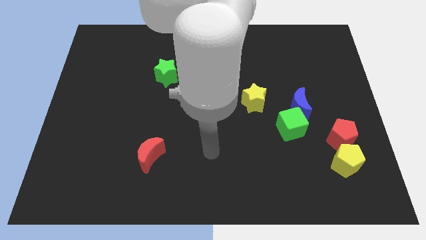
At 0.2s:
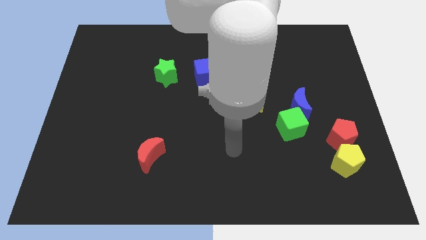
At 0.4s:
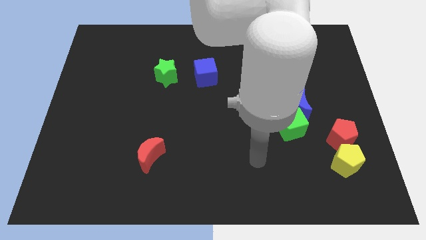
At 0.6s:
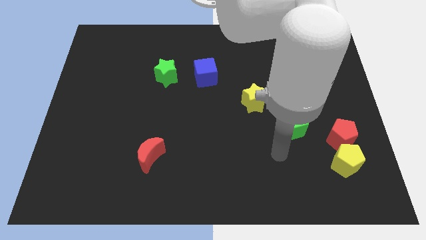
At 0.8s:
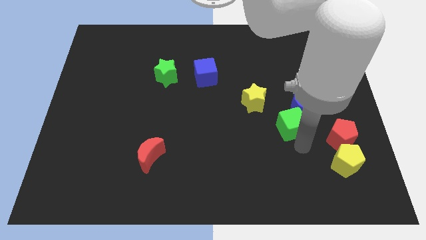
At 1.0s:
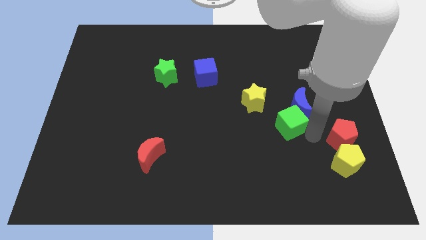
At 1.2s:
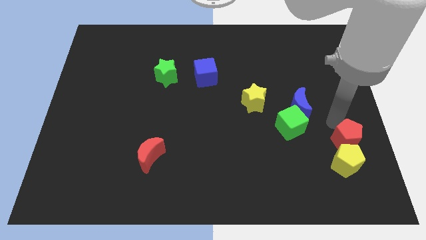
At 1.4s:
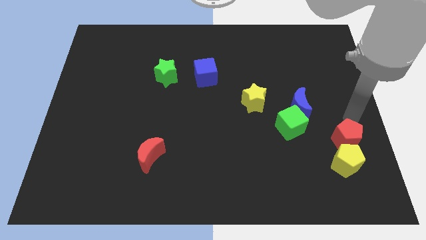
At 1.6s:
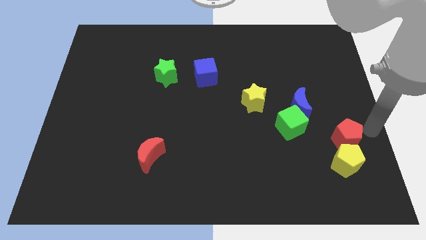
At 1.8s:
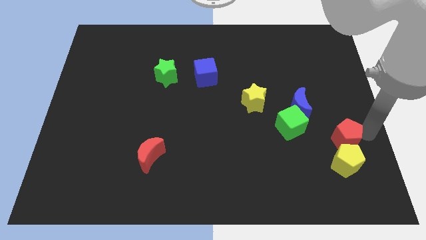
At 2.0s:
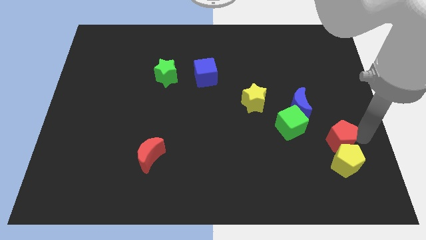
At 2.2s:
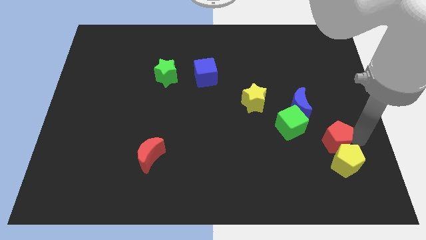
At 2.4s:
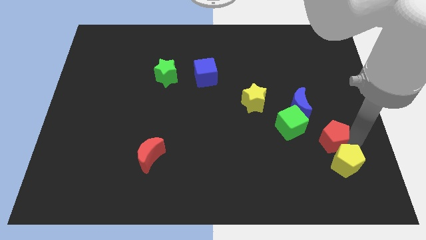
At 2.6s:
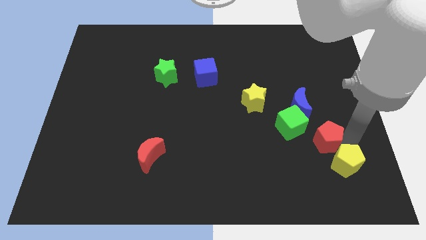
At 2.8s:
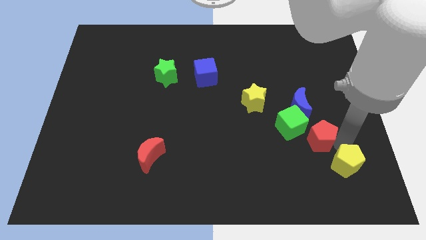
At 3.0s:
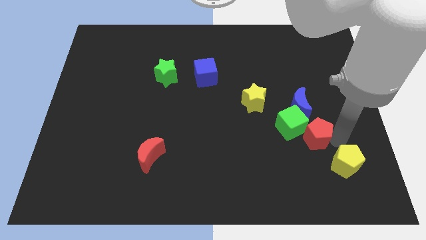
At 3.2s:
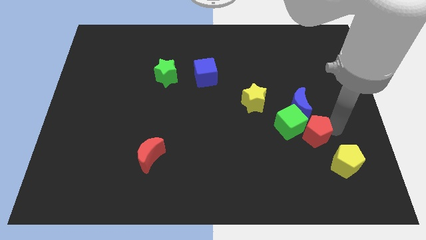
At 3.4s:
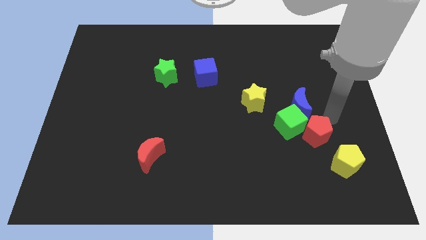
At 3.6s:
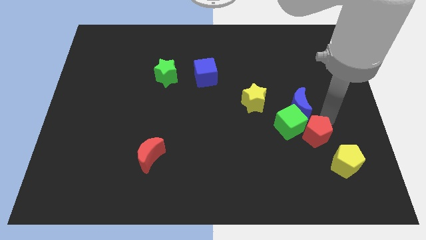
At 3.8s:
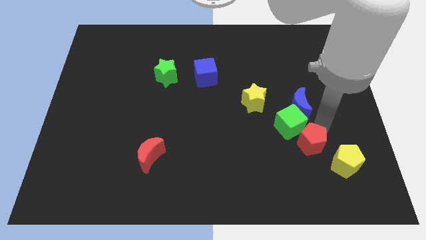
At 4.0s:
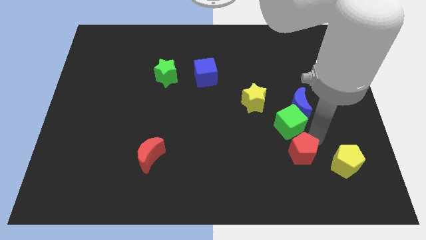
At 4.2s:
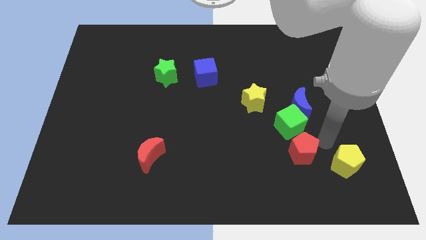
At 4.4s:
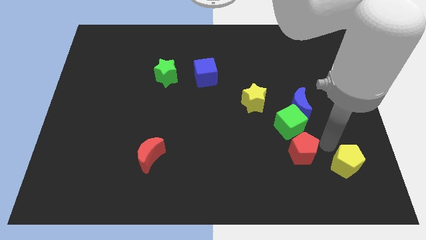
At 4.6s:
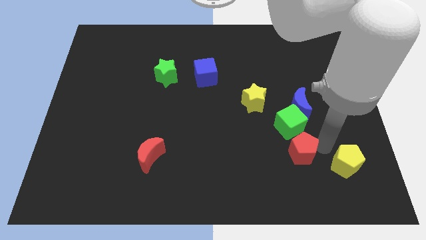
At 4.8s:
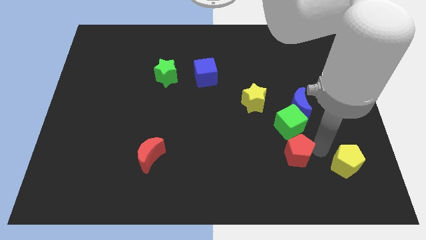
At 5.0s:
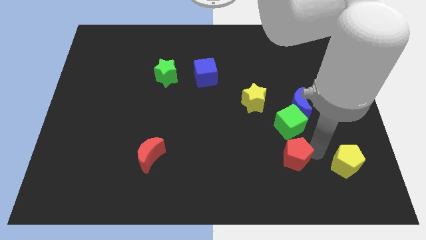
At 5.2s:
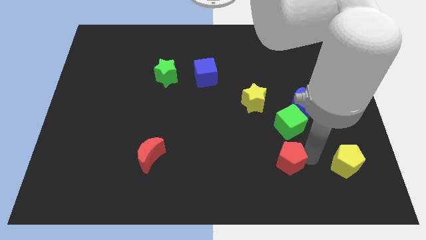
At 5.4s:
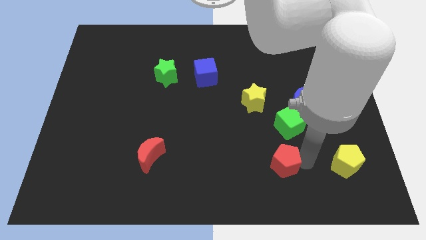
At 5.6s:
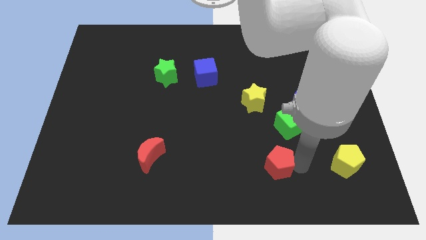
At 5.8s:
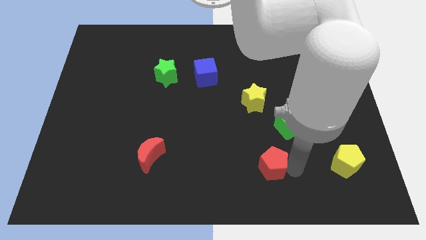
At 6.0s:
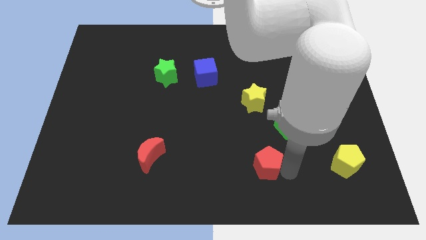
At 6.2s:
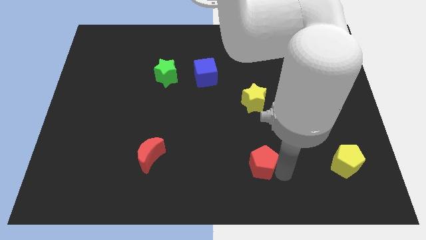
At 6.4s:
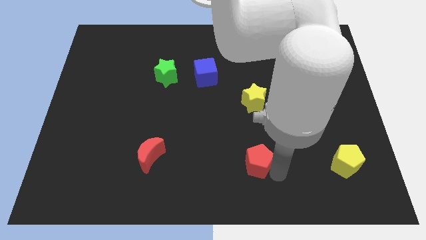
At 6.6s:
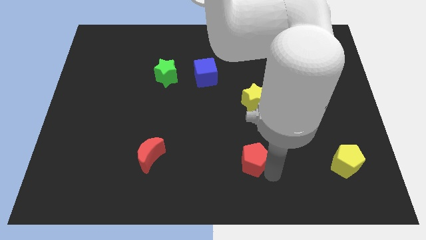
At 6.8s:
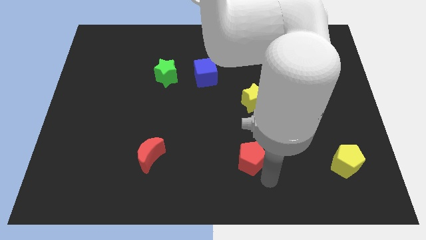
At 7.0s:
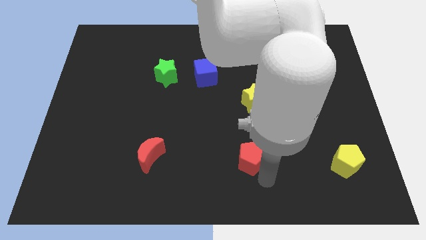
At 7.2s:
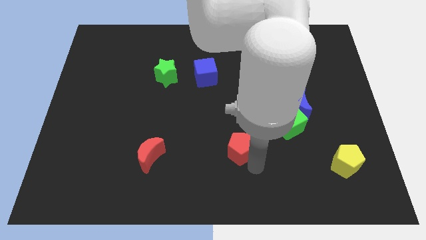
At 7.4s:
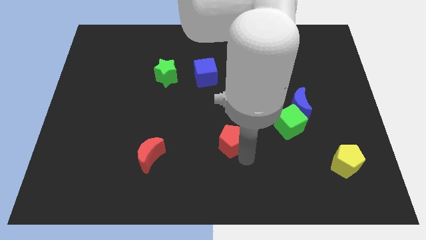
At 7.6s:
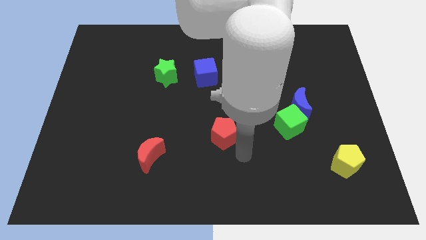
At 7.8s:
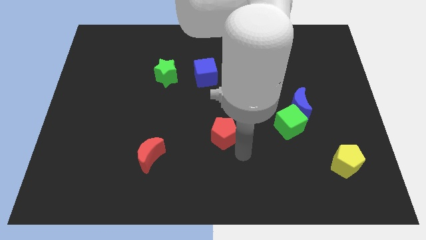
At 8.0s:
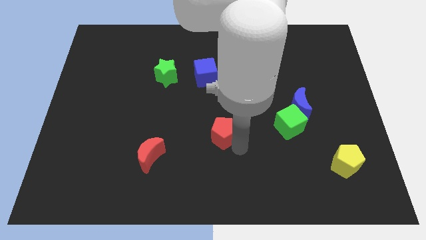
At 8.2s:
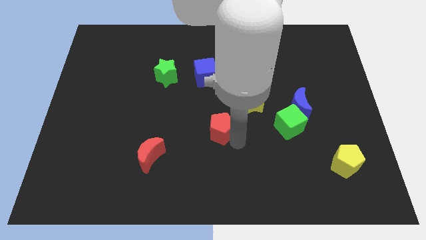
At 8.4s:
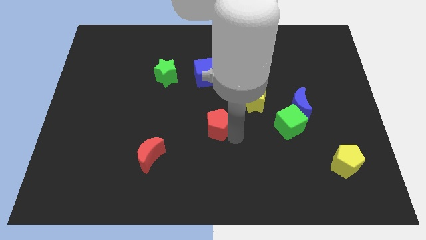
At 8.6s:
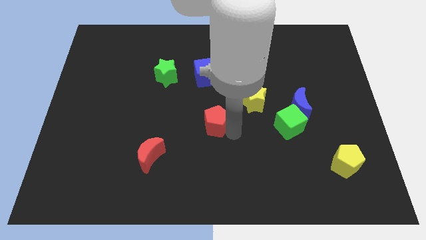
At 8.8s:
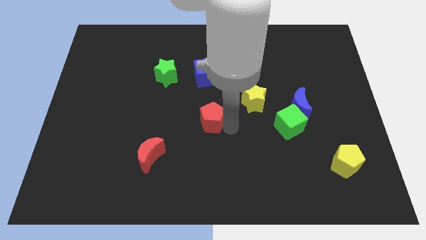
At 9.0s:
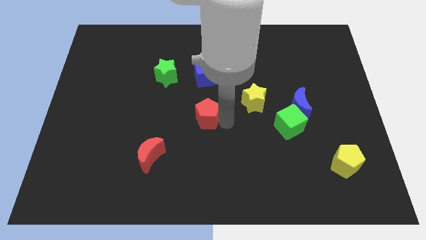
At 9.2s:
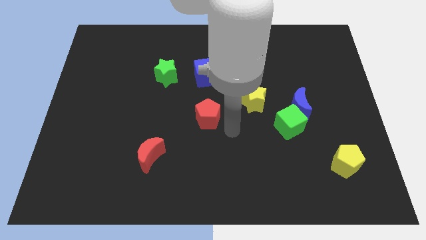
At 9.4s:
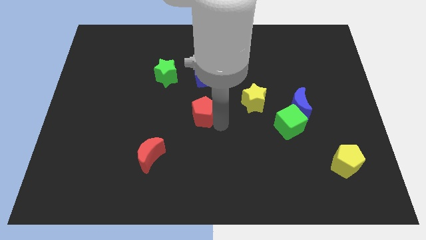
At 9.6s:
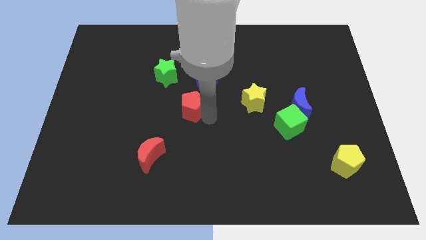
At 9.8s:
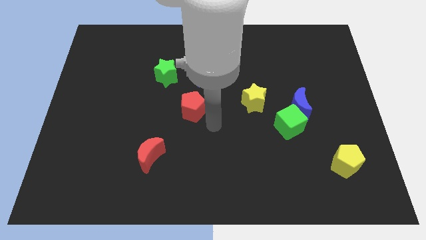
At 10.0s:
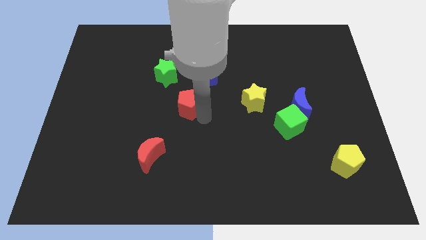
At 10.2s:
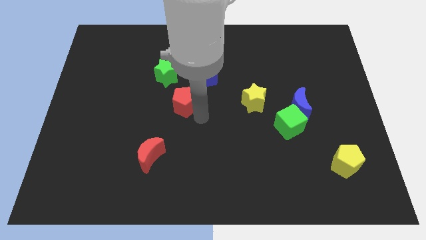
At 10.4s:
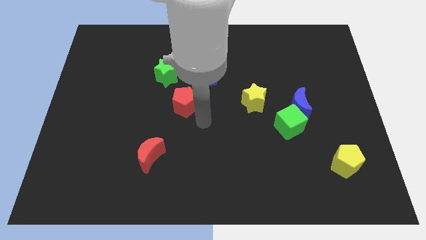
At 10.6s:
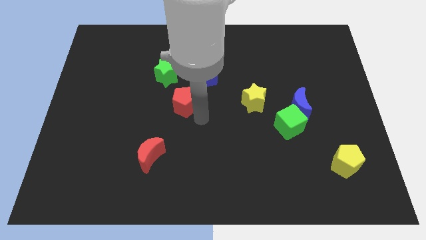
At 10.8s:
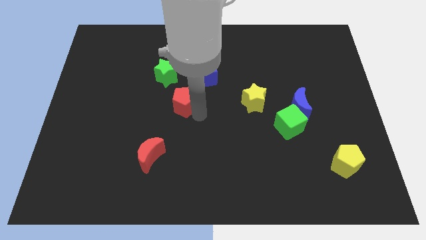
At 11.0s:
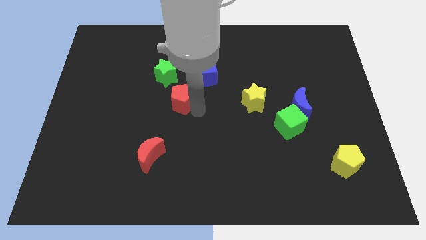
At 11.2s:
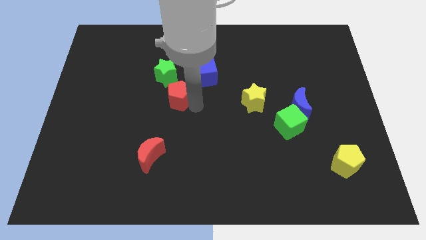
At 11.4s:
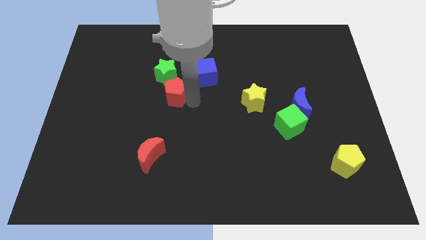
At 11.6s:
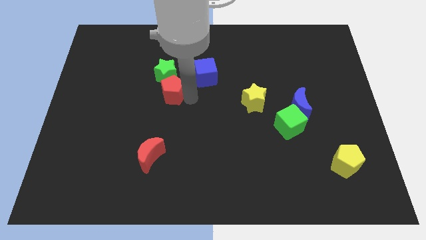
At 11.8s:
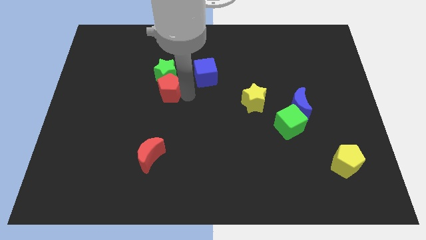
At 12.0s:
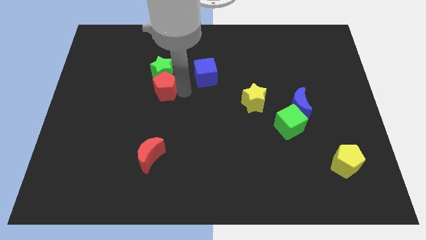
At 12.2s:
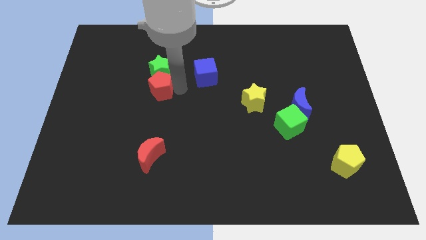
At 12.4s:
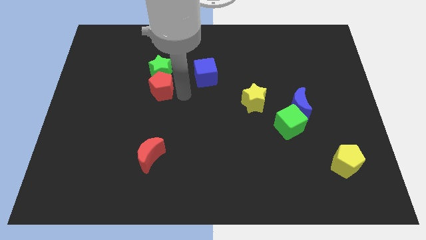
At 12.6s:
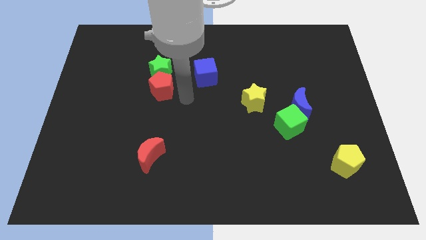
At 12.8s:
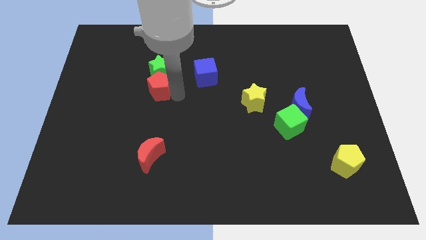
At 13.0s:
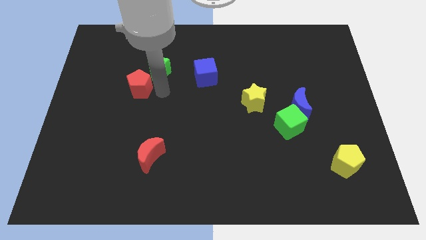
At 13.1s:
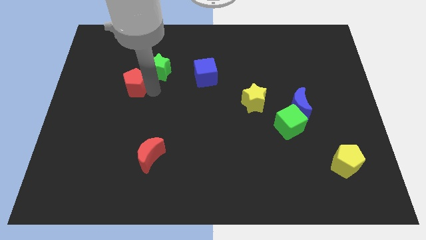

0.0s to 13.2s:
push the red pentagon just left of the green star
